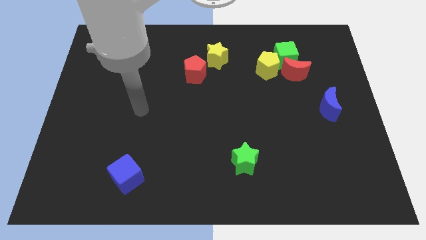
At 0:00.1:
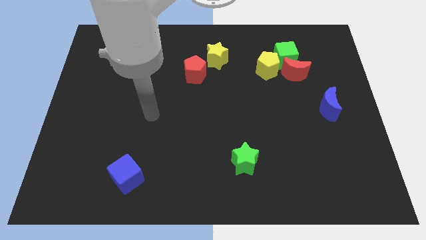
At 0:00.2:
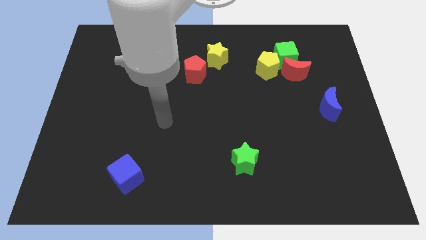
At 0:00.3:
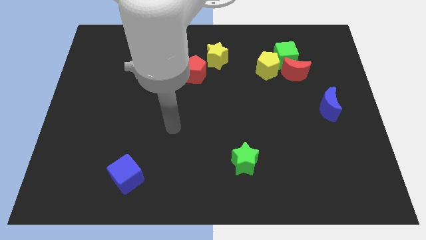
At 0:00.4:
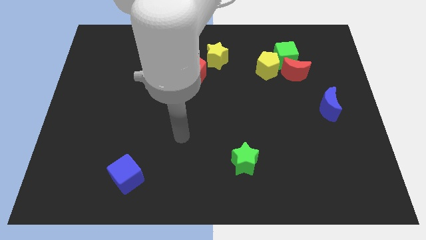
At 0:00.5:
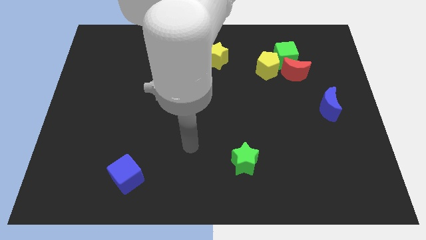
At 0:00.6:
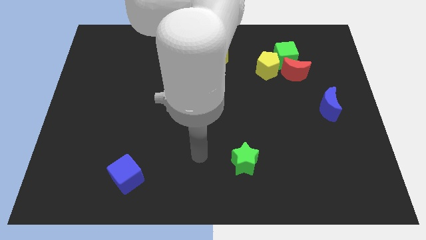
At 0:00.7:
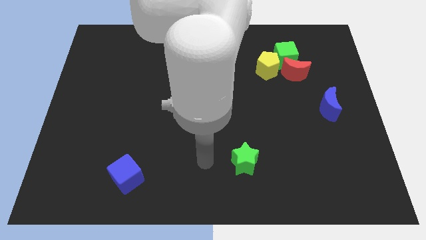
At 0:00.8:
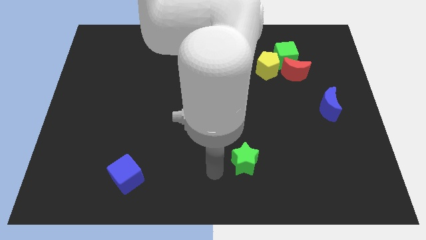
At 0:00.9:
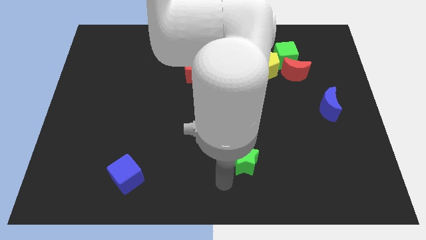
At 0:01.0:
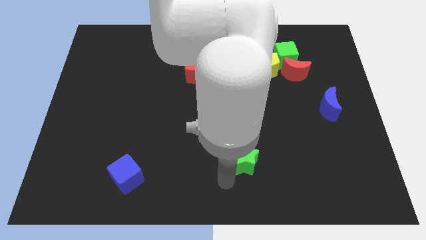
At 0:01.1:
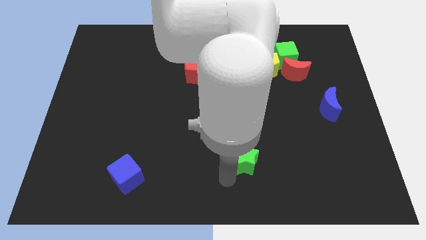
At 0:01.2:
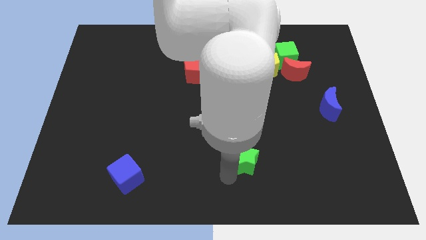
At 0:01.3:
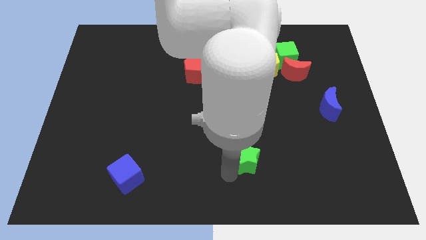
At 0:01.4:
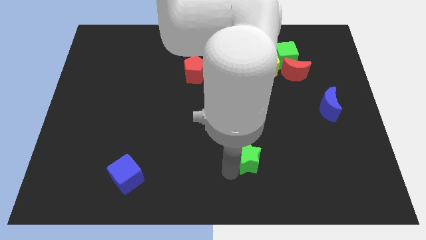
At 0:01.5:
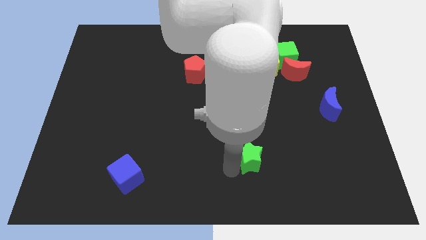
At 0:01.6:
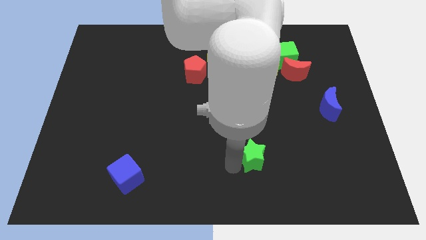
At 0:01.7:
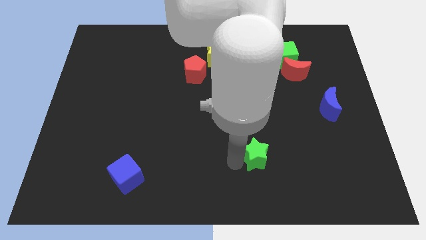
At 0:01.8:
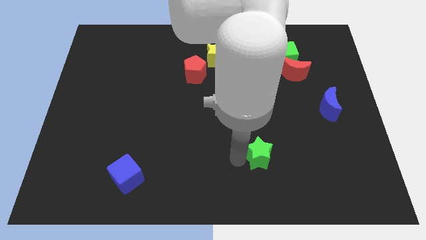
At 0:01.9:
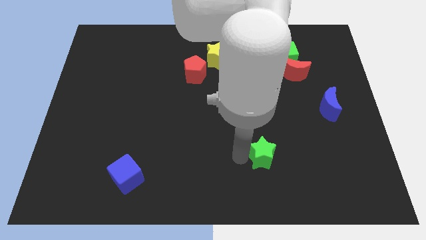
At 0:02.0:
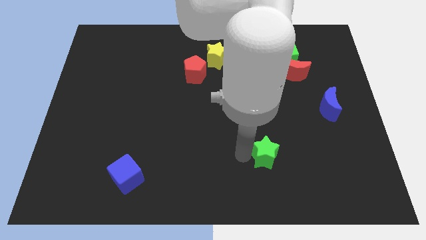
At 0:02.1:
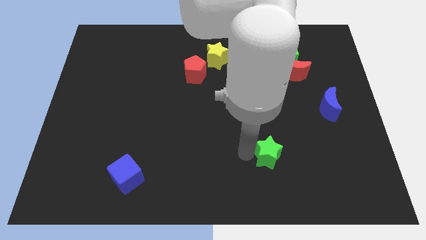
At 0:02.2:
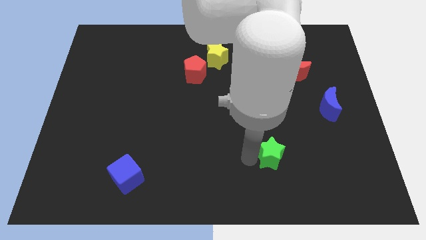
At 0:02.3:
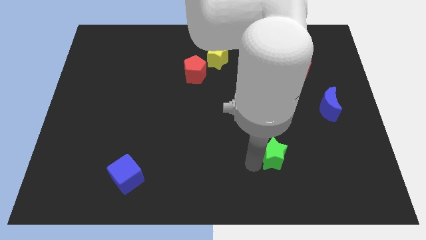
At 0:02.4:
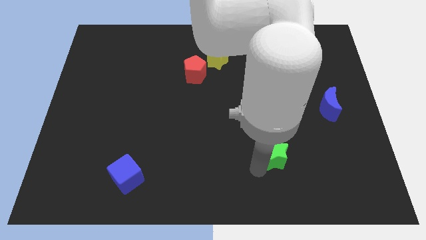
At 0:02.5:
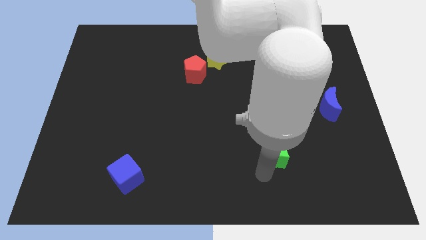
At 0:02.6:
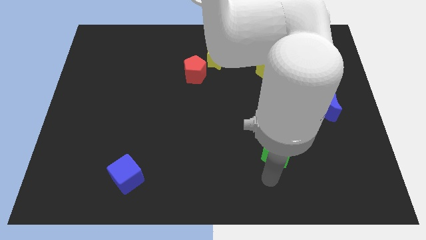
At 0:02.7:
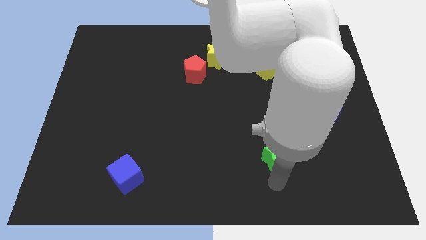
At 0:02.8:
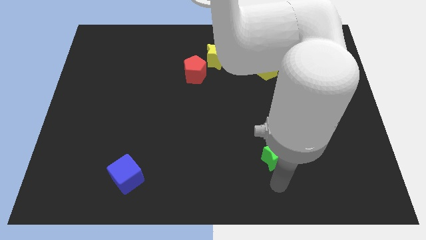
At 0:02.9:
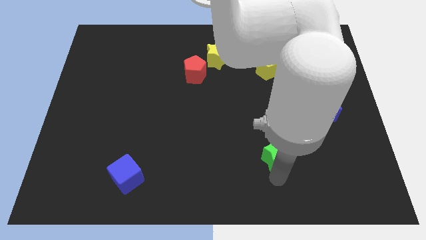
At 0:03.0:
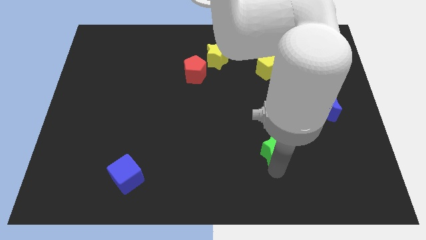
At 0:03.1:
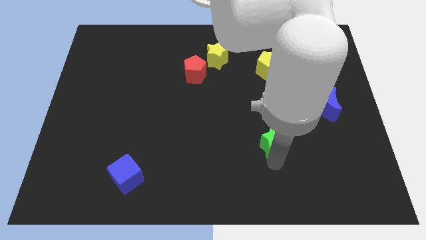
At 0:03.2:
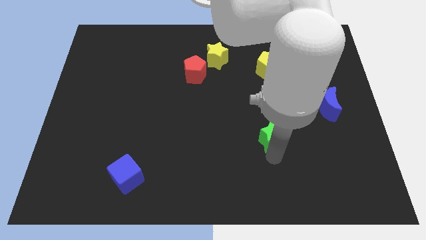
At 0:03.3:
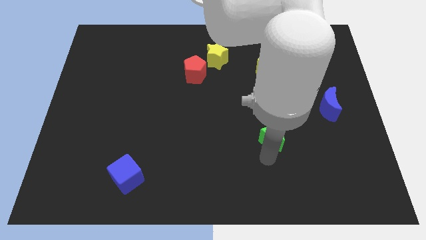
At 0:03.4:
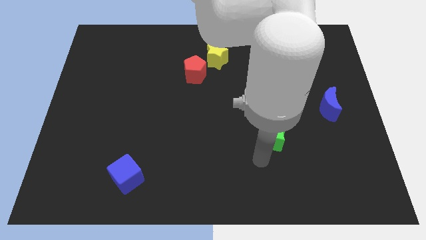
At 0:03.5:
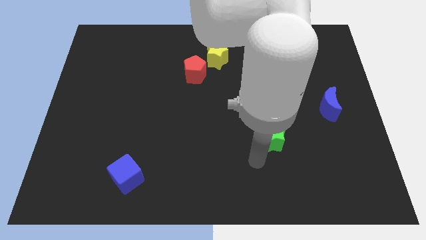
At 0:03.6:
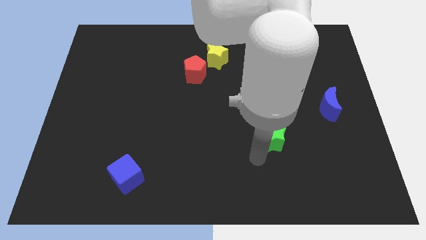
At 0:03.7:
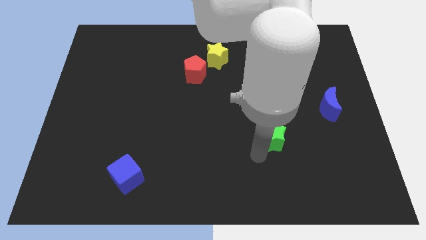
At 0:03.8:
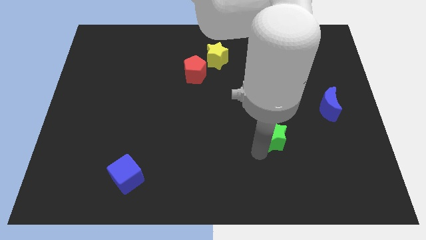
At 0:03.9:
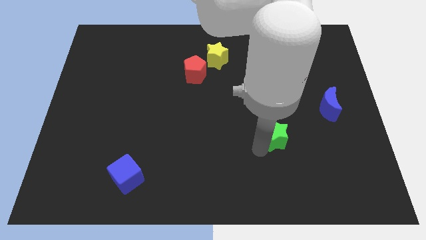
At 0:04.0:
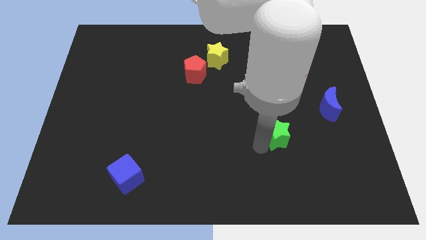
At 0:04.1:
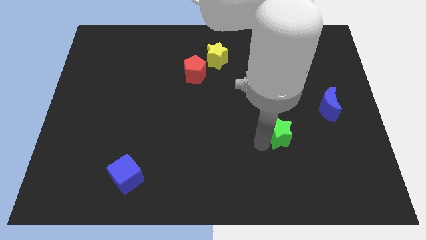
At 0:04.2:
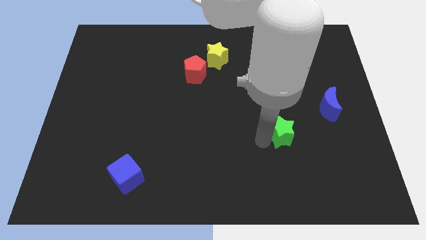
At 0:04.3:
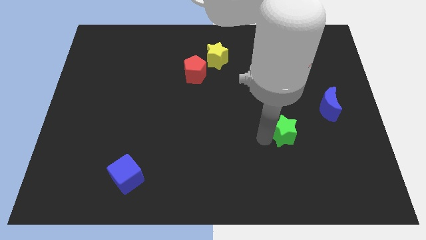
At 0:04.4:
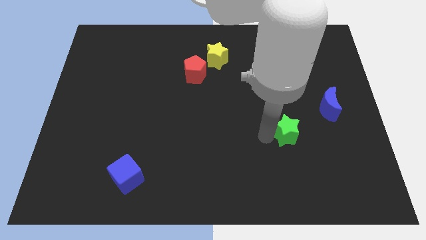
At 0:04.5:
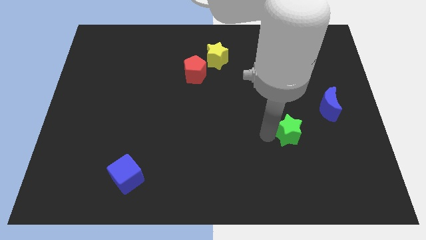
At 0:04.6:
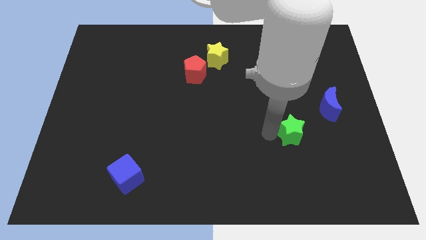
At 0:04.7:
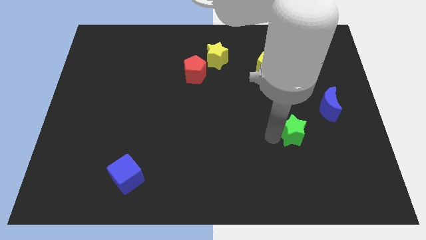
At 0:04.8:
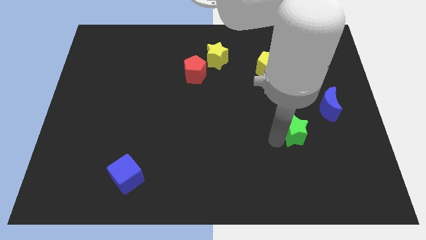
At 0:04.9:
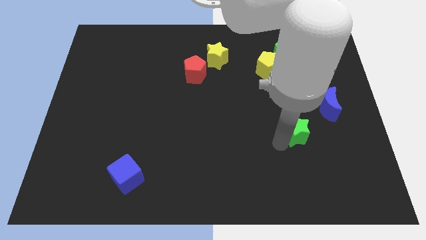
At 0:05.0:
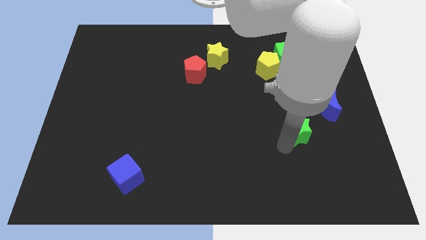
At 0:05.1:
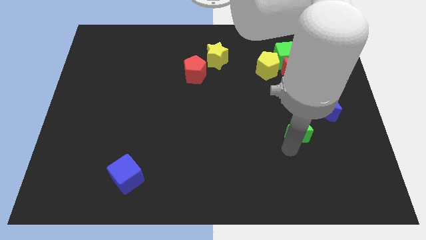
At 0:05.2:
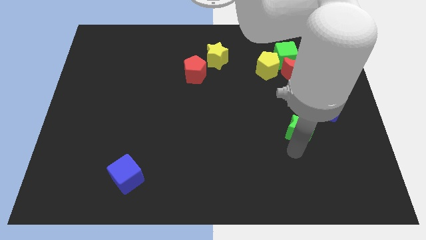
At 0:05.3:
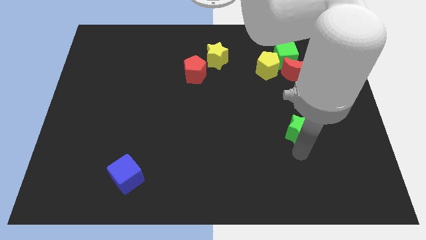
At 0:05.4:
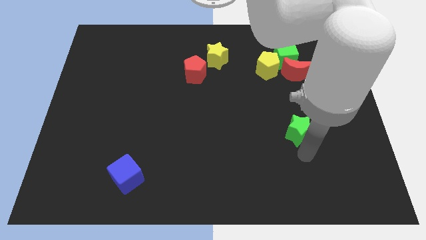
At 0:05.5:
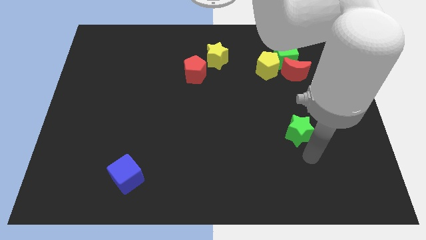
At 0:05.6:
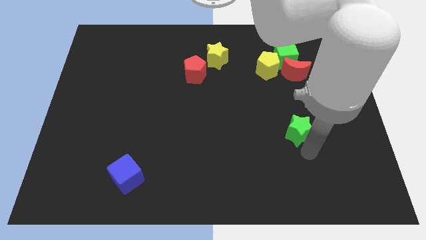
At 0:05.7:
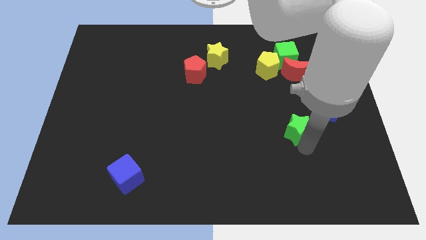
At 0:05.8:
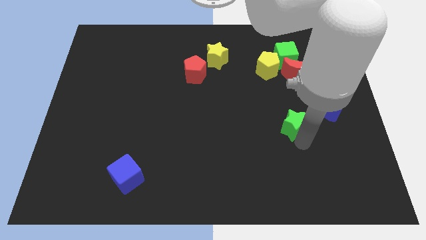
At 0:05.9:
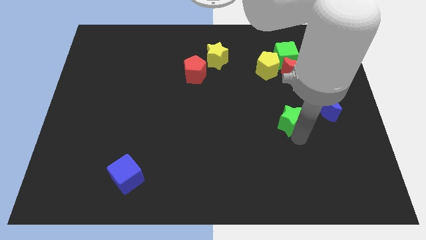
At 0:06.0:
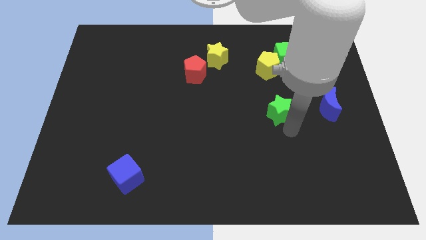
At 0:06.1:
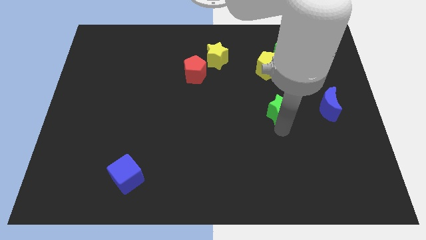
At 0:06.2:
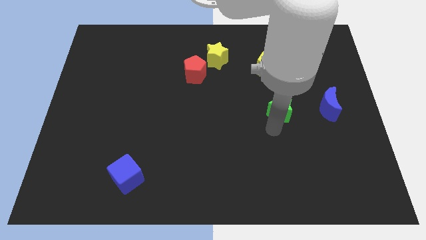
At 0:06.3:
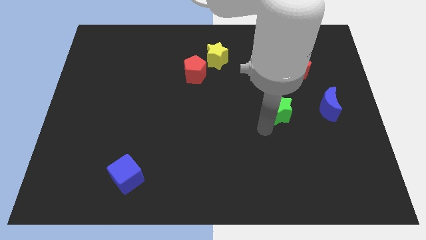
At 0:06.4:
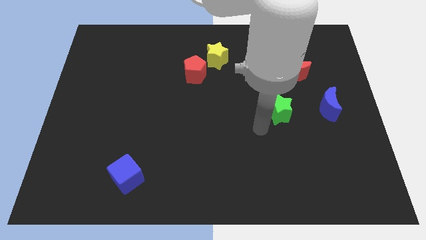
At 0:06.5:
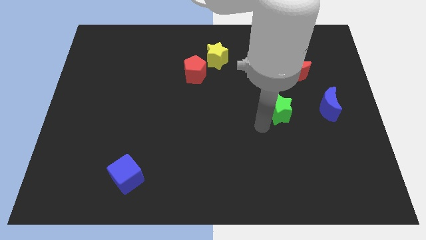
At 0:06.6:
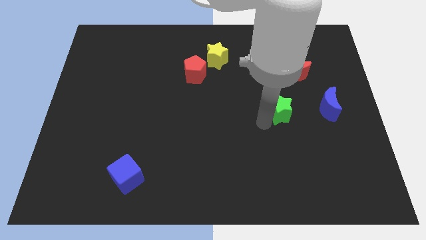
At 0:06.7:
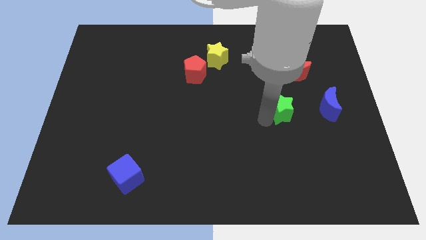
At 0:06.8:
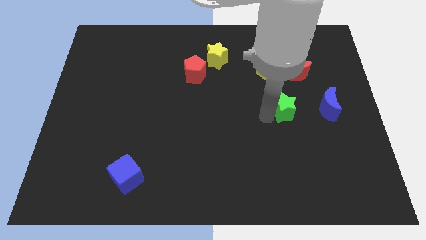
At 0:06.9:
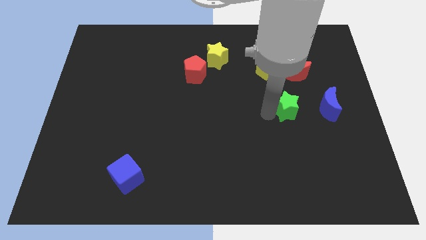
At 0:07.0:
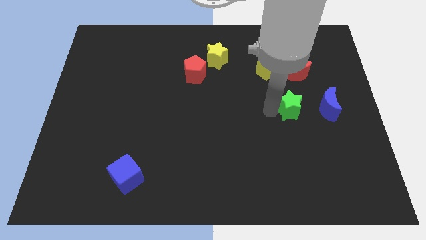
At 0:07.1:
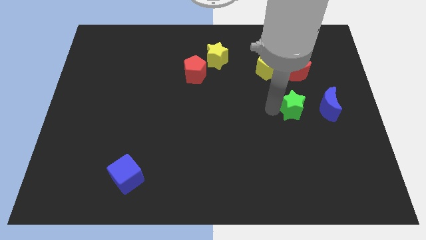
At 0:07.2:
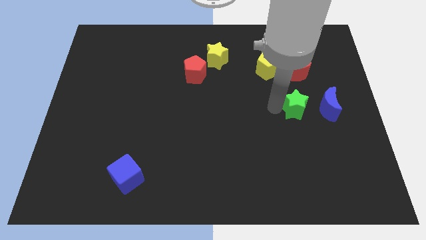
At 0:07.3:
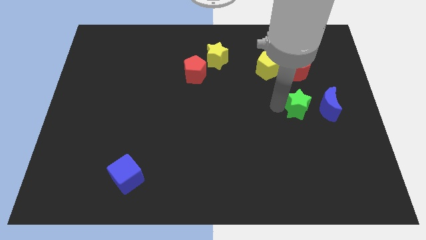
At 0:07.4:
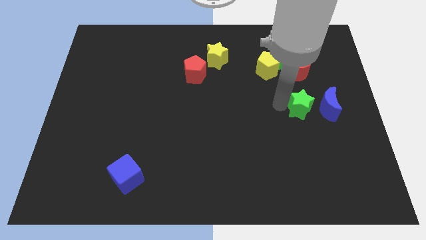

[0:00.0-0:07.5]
put the green star to the top left side of the blue moon
